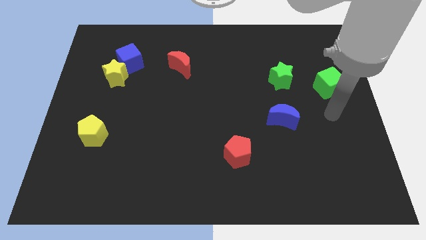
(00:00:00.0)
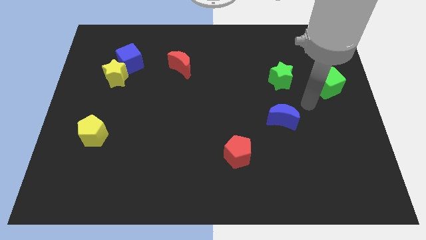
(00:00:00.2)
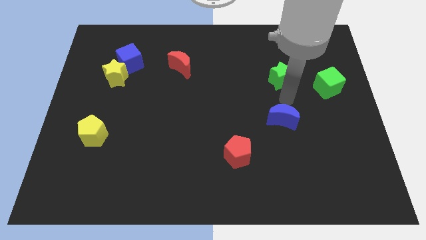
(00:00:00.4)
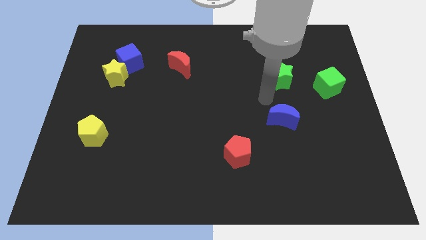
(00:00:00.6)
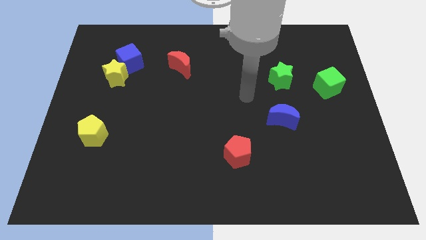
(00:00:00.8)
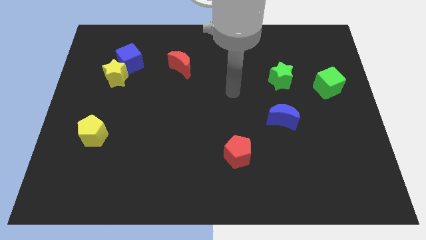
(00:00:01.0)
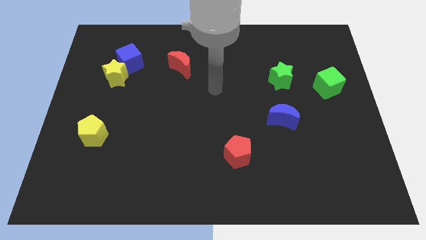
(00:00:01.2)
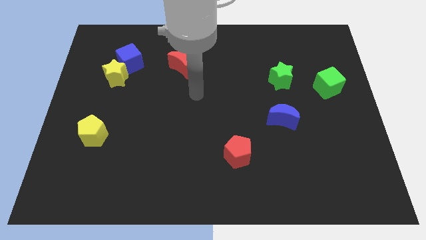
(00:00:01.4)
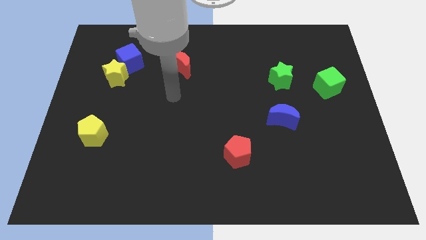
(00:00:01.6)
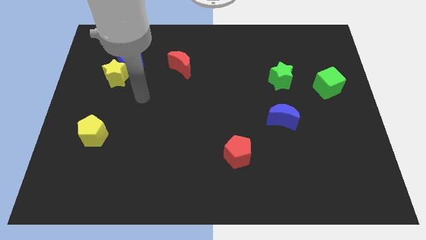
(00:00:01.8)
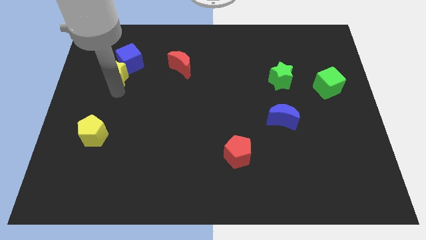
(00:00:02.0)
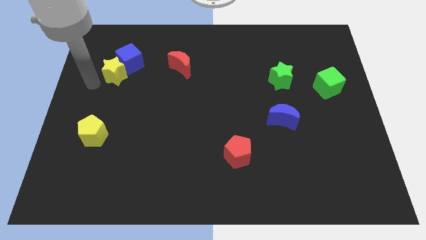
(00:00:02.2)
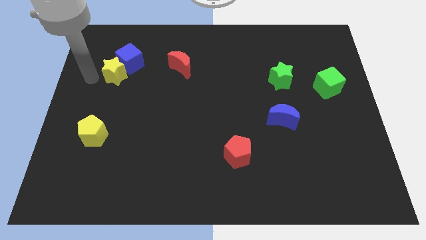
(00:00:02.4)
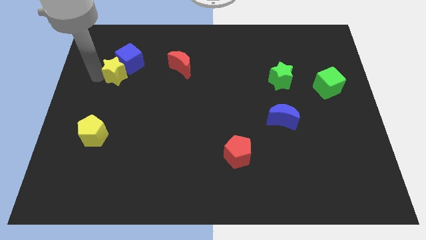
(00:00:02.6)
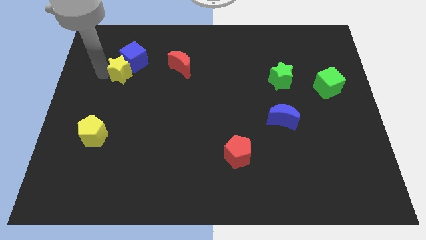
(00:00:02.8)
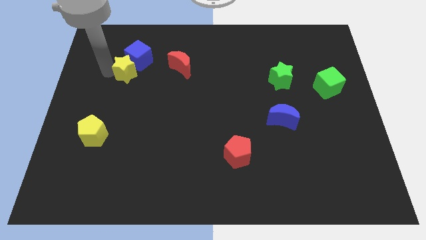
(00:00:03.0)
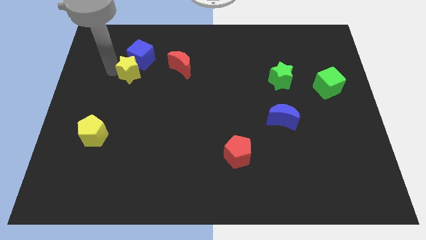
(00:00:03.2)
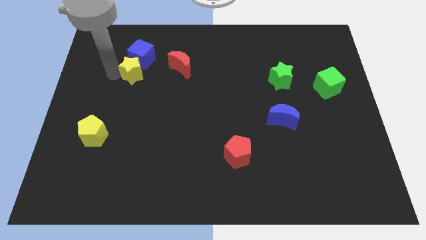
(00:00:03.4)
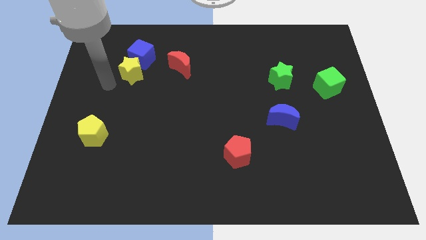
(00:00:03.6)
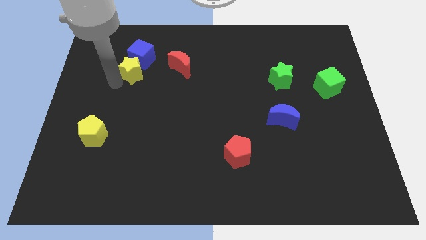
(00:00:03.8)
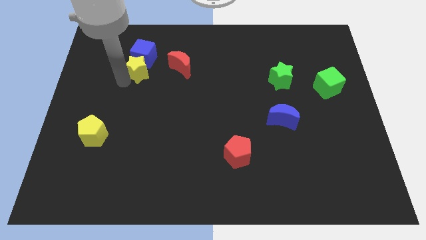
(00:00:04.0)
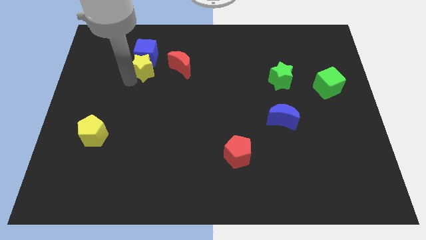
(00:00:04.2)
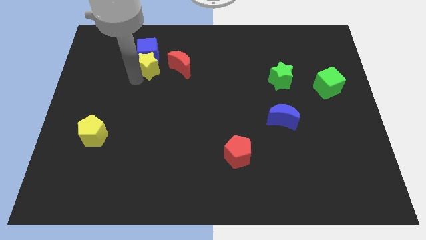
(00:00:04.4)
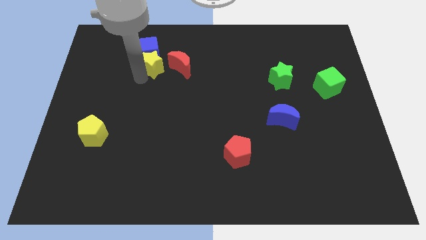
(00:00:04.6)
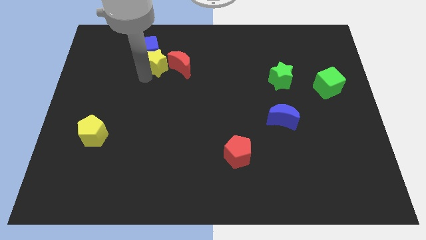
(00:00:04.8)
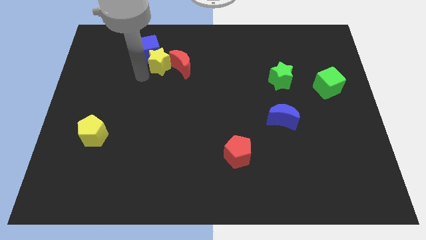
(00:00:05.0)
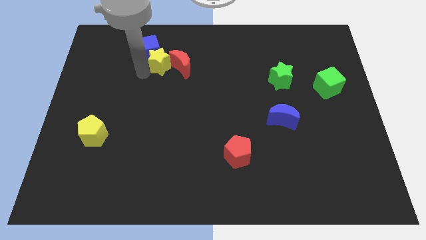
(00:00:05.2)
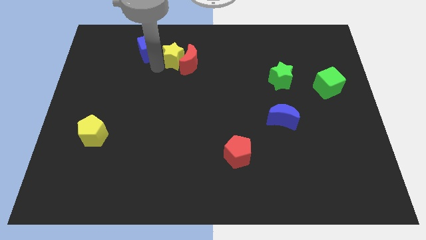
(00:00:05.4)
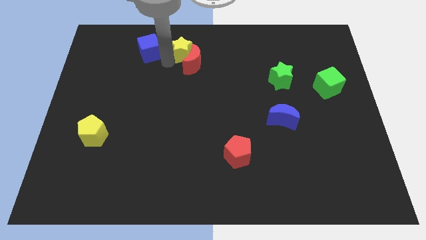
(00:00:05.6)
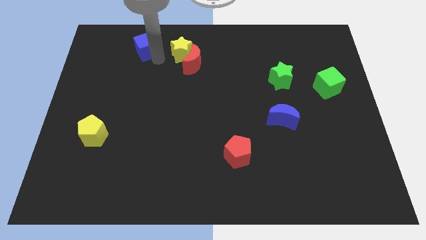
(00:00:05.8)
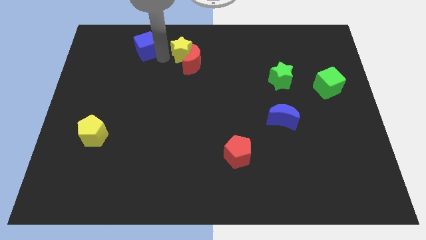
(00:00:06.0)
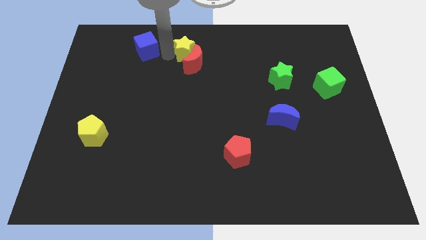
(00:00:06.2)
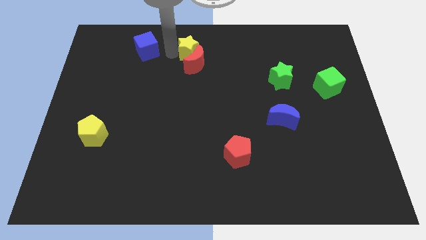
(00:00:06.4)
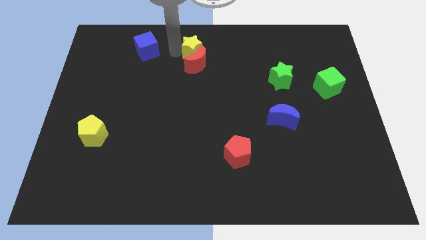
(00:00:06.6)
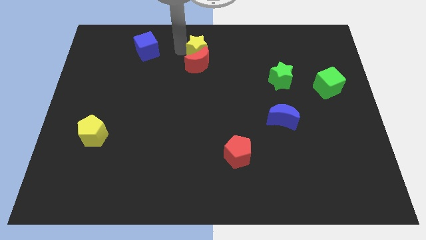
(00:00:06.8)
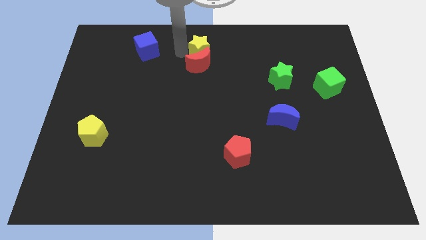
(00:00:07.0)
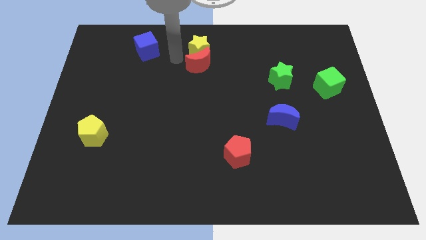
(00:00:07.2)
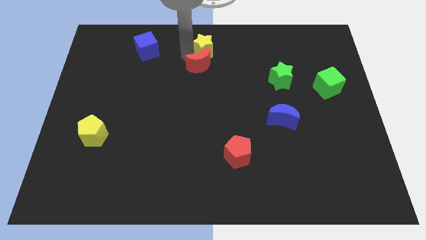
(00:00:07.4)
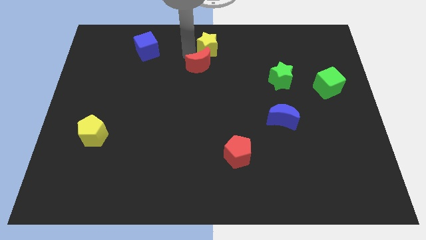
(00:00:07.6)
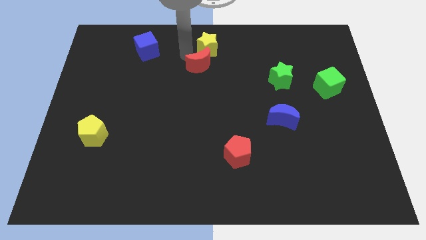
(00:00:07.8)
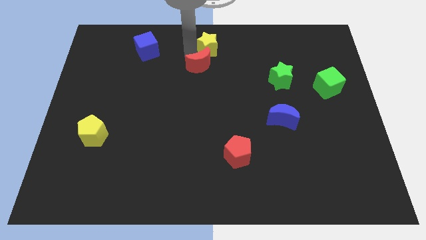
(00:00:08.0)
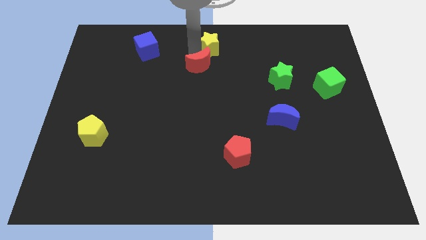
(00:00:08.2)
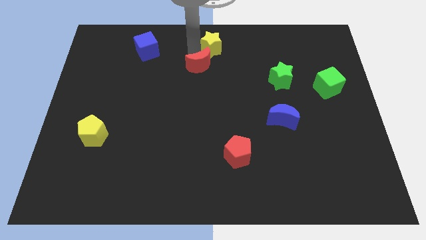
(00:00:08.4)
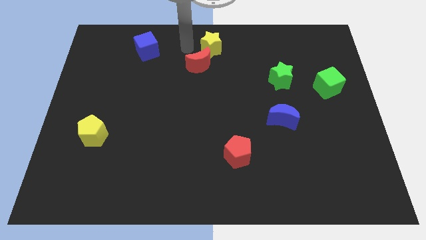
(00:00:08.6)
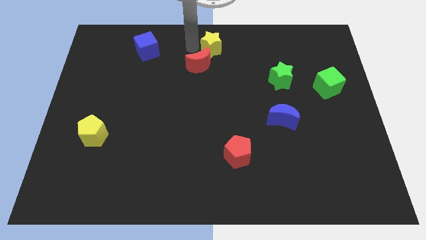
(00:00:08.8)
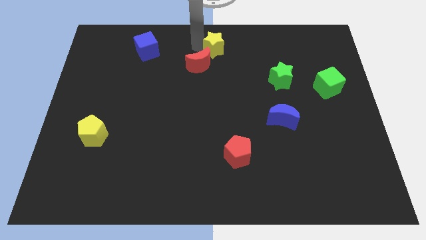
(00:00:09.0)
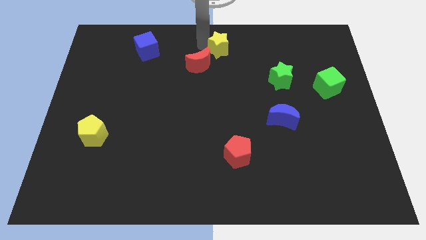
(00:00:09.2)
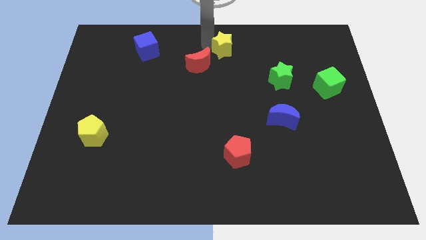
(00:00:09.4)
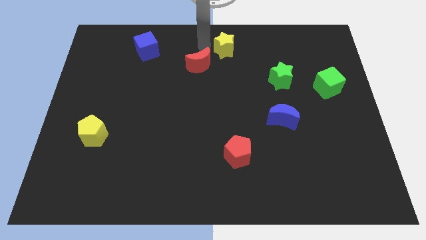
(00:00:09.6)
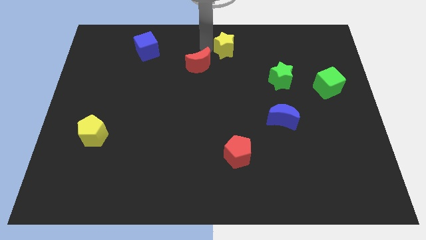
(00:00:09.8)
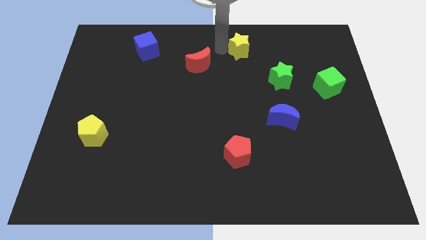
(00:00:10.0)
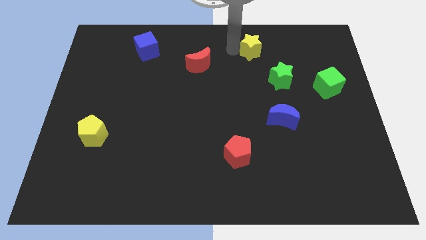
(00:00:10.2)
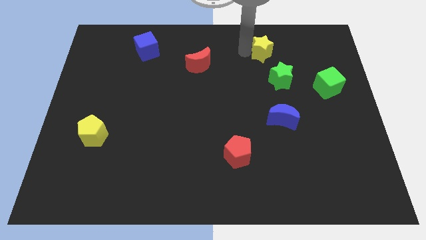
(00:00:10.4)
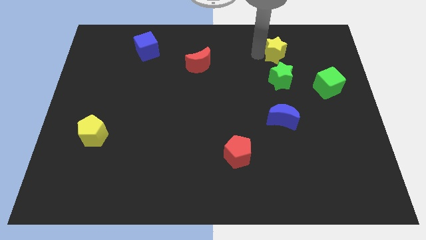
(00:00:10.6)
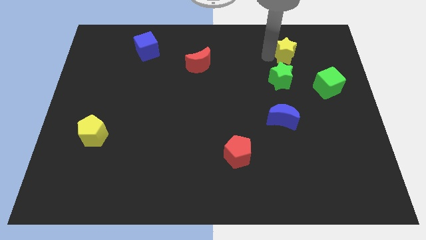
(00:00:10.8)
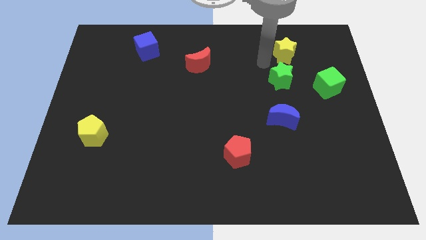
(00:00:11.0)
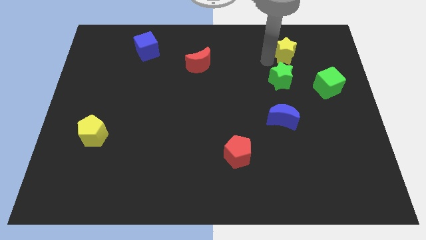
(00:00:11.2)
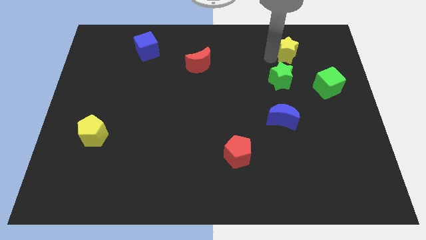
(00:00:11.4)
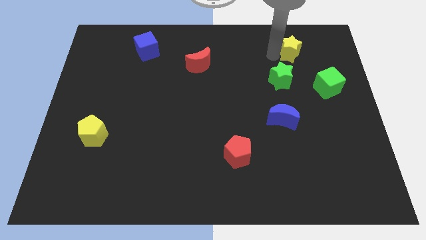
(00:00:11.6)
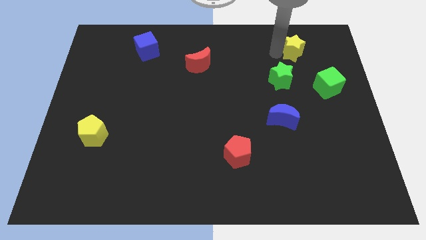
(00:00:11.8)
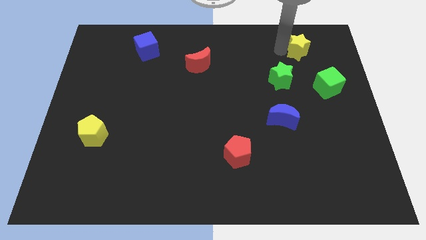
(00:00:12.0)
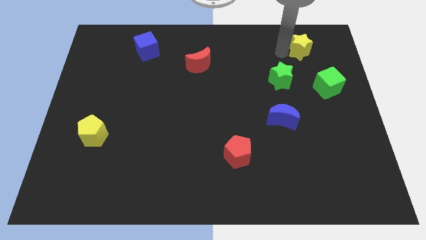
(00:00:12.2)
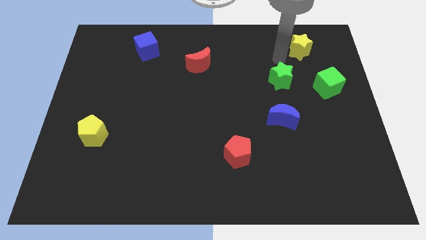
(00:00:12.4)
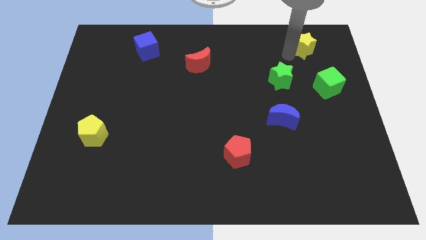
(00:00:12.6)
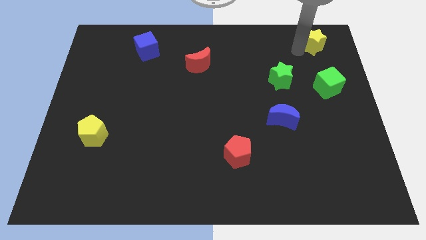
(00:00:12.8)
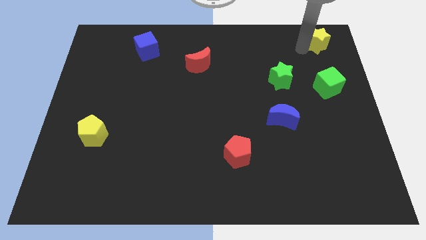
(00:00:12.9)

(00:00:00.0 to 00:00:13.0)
move the yellow star to the top right of the board
